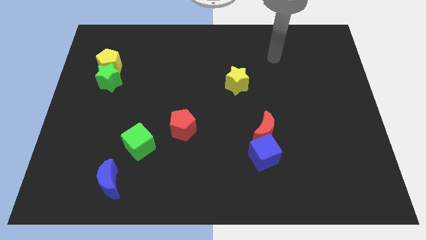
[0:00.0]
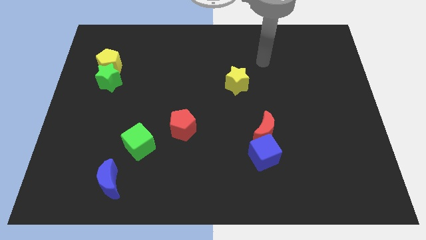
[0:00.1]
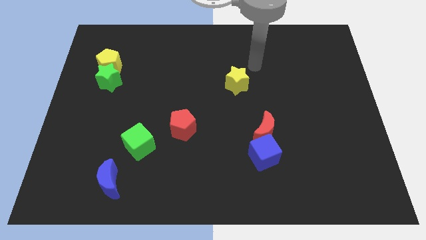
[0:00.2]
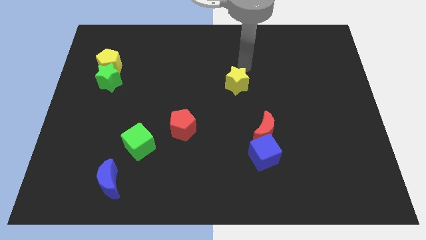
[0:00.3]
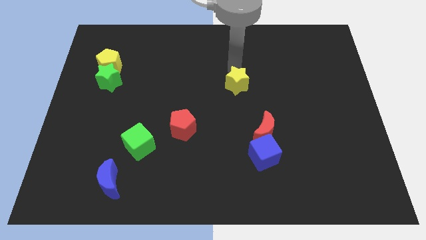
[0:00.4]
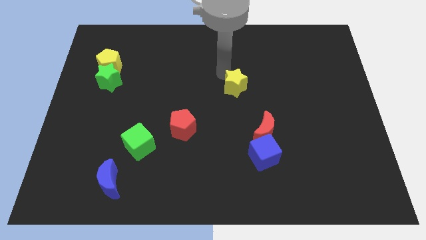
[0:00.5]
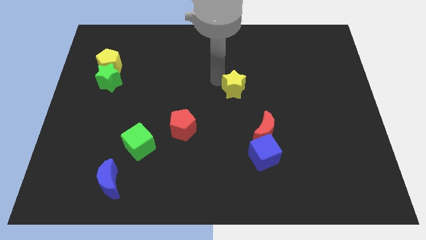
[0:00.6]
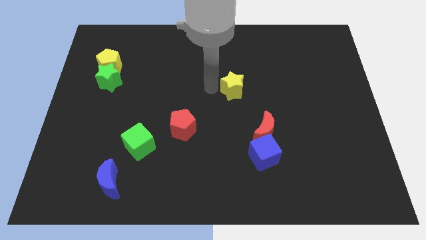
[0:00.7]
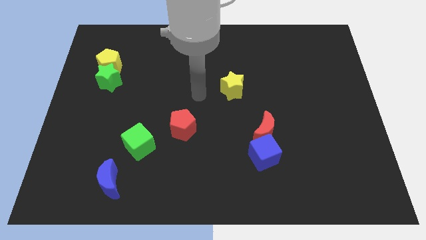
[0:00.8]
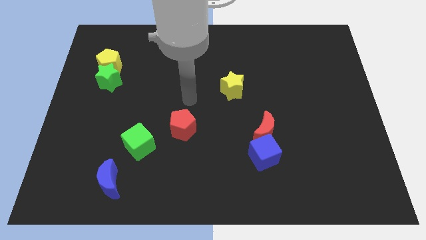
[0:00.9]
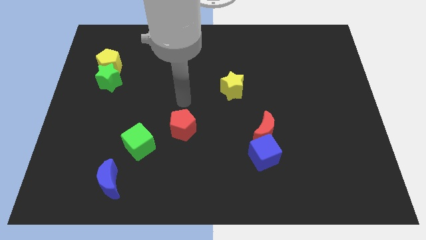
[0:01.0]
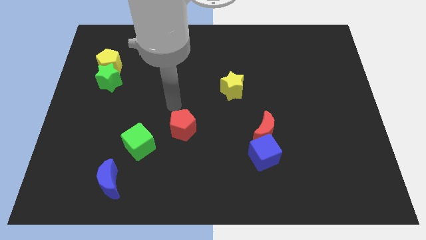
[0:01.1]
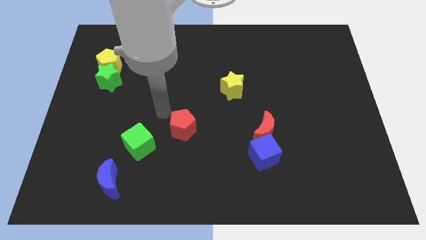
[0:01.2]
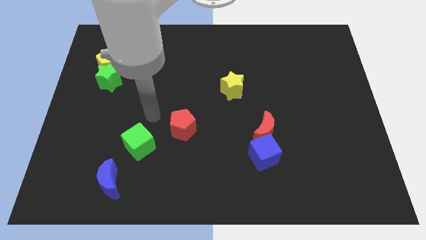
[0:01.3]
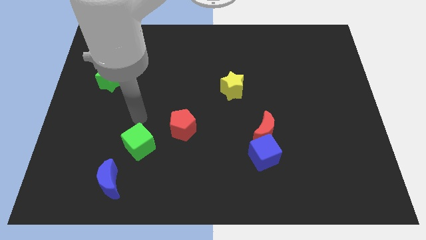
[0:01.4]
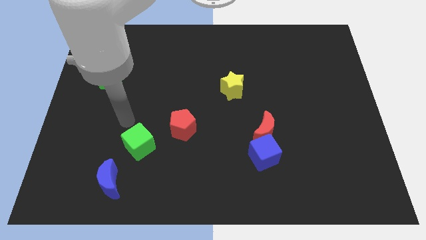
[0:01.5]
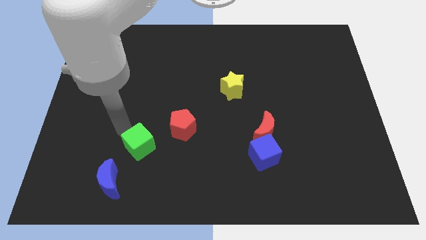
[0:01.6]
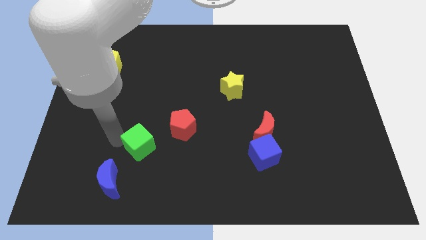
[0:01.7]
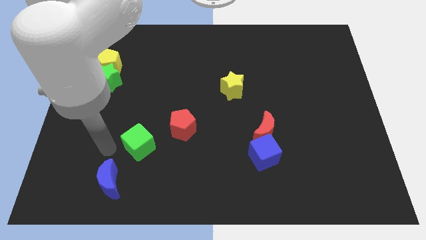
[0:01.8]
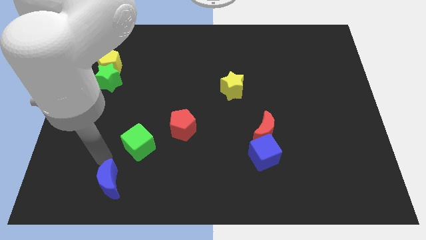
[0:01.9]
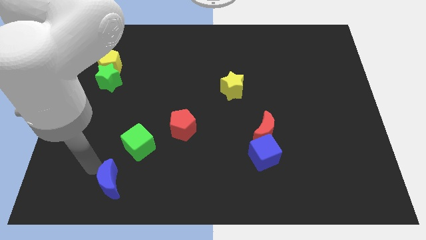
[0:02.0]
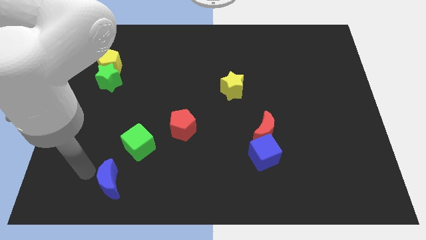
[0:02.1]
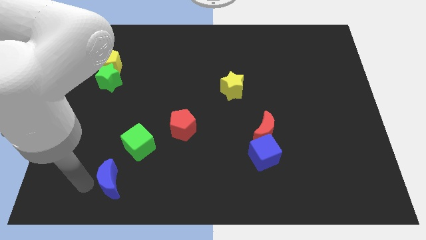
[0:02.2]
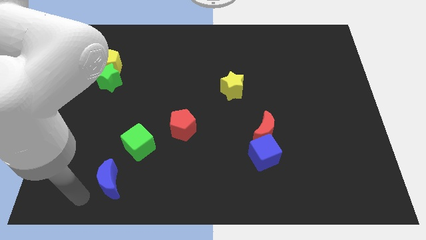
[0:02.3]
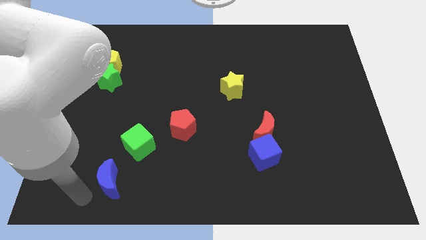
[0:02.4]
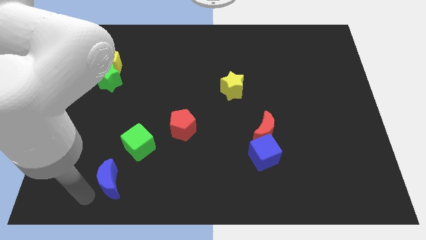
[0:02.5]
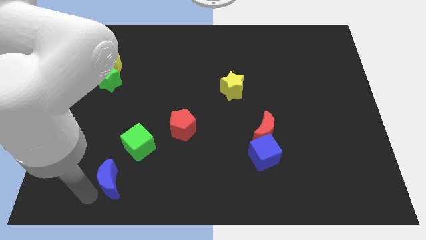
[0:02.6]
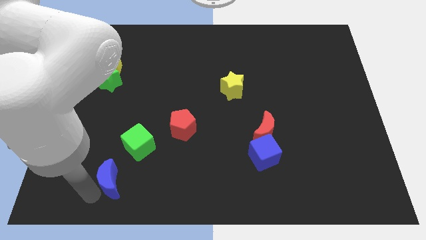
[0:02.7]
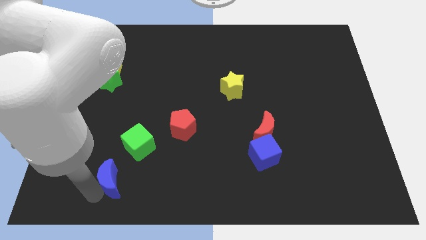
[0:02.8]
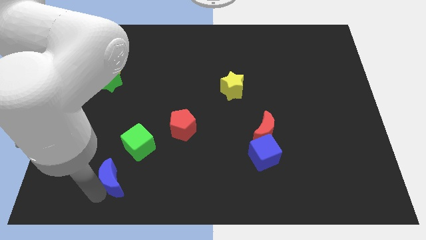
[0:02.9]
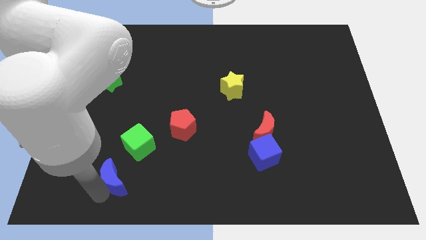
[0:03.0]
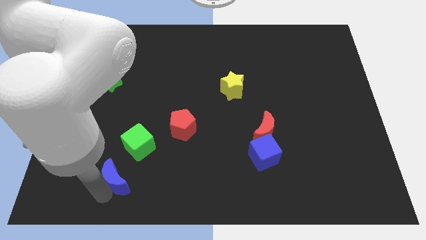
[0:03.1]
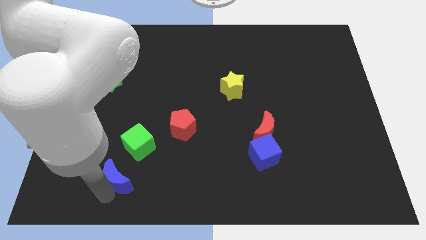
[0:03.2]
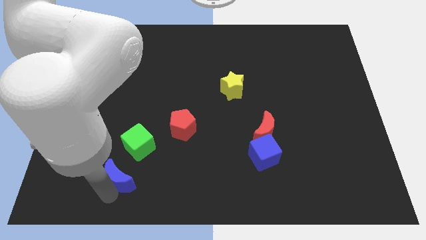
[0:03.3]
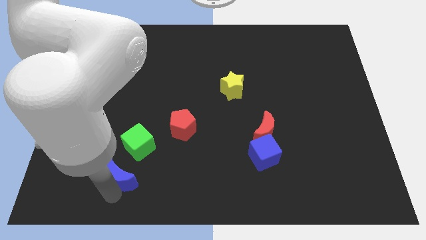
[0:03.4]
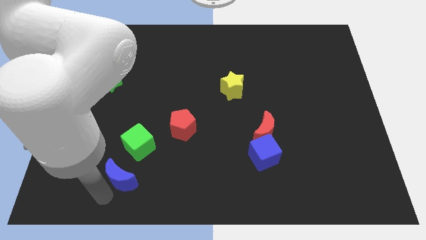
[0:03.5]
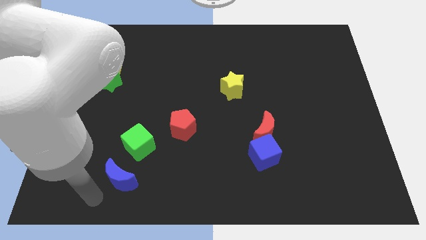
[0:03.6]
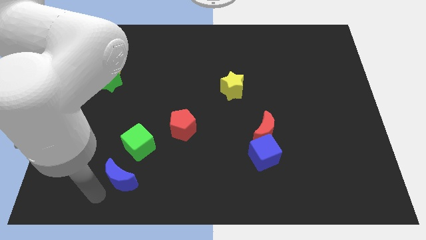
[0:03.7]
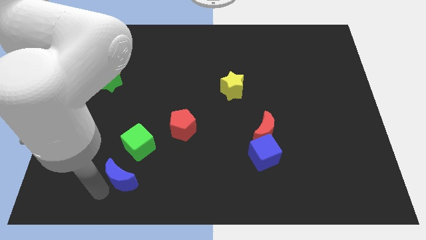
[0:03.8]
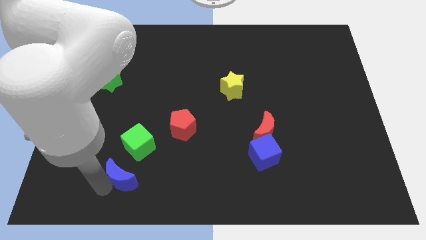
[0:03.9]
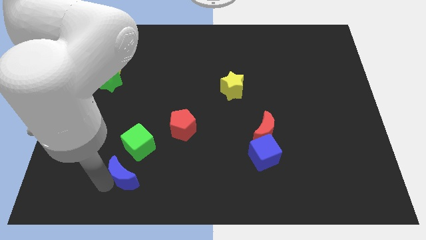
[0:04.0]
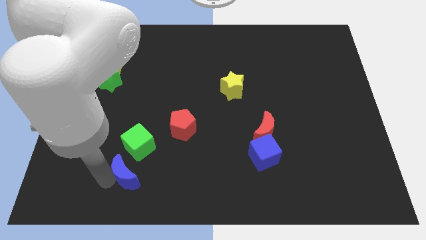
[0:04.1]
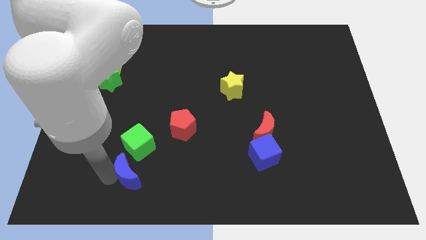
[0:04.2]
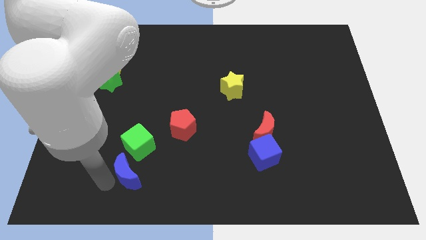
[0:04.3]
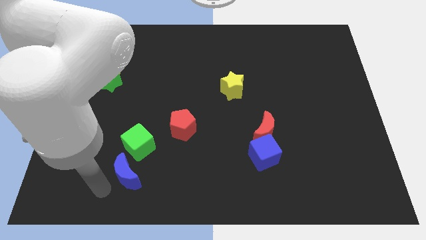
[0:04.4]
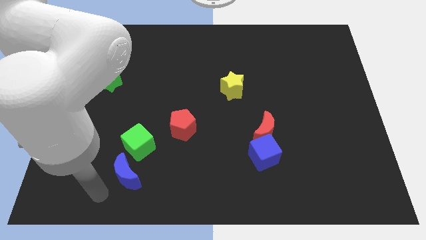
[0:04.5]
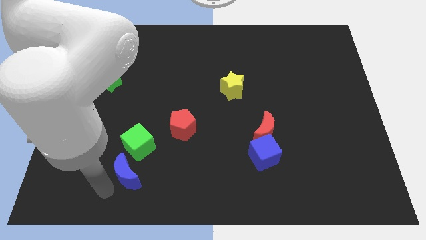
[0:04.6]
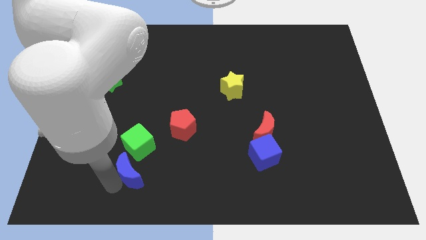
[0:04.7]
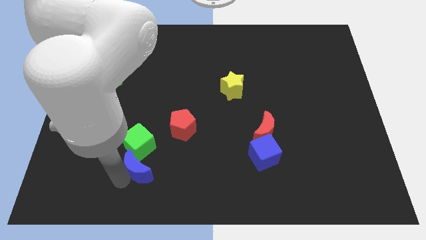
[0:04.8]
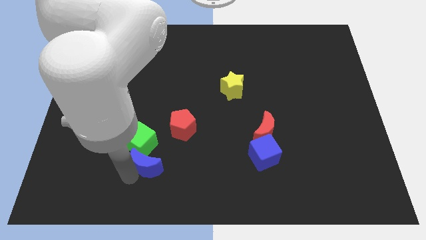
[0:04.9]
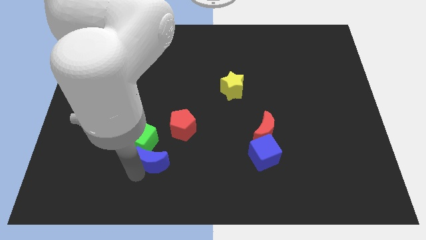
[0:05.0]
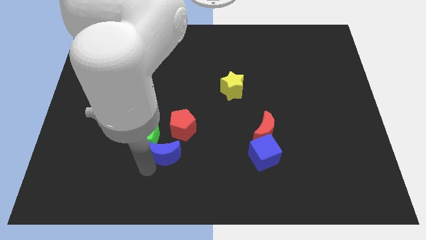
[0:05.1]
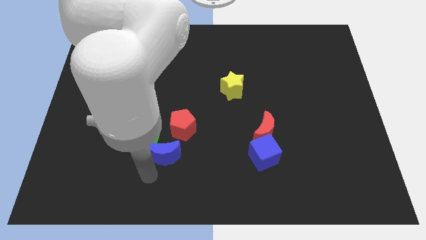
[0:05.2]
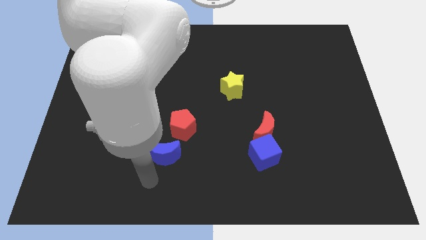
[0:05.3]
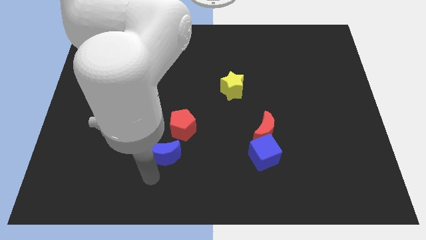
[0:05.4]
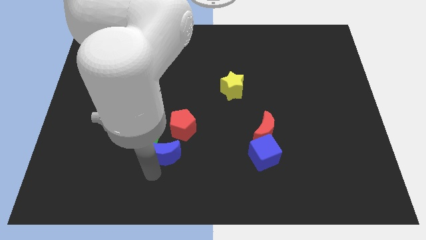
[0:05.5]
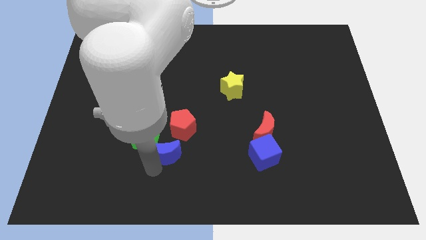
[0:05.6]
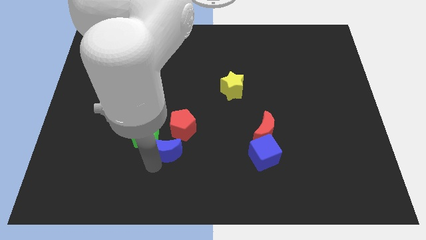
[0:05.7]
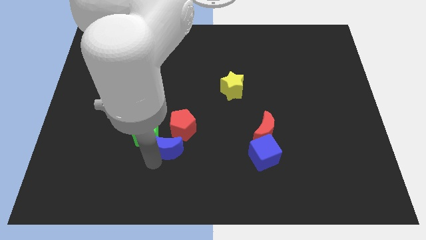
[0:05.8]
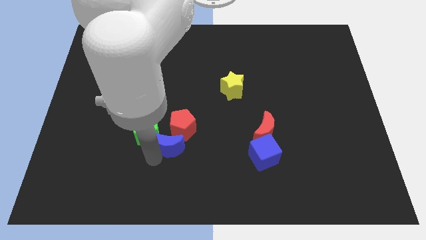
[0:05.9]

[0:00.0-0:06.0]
put the blue moon next to the red pentagon

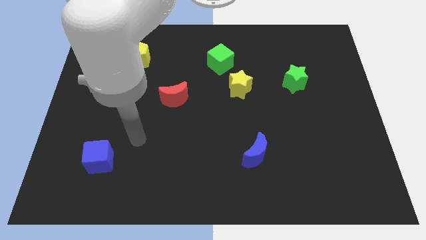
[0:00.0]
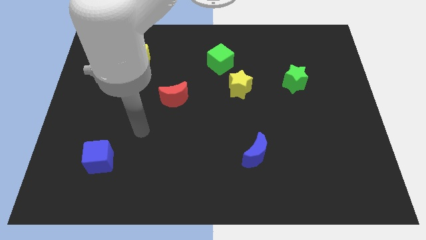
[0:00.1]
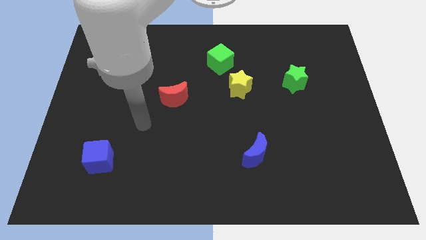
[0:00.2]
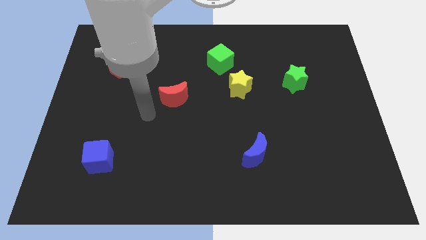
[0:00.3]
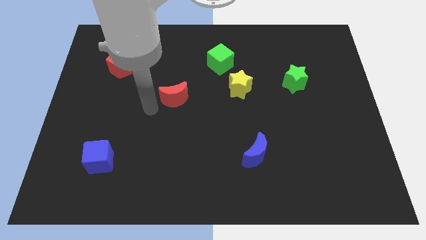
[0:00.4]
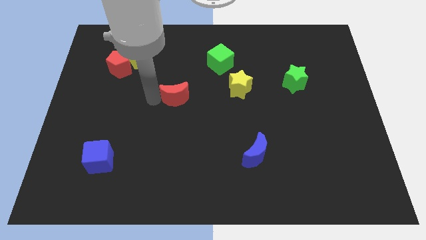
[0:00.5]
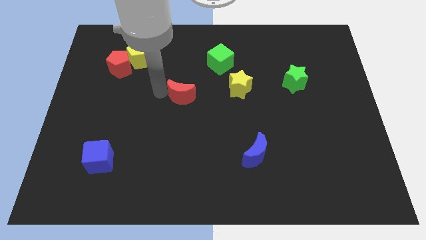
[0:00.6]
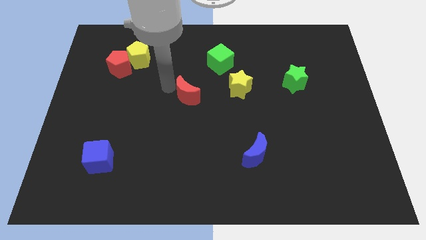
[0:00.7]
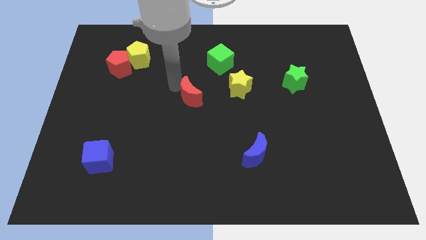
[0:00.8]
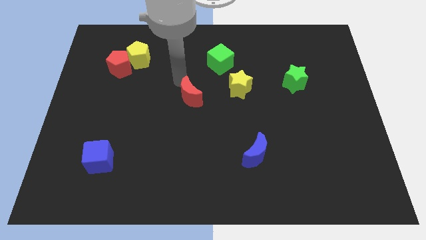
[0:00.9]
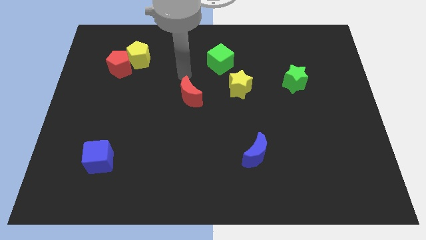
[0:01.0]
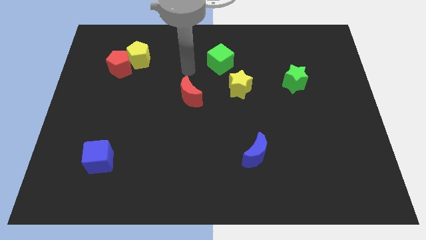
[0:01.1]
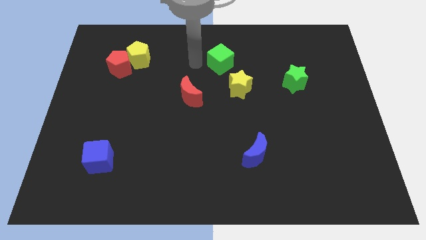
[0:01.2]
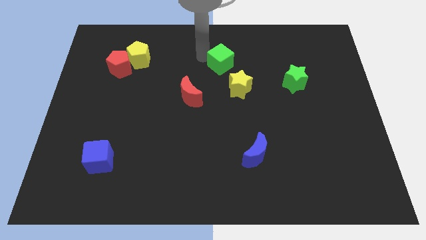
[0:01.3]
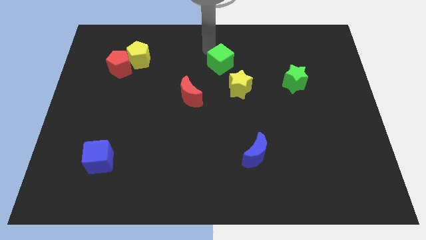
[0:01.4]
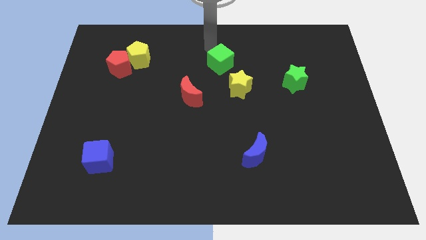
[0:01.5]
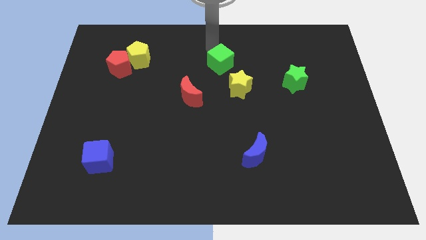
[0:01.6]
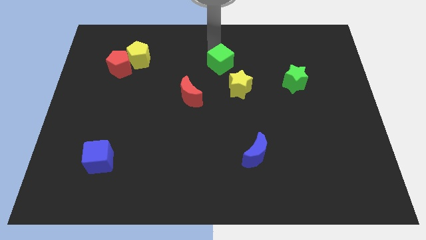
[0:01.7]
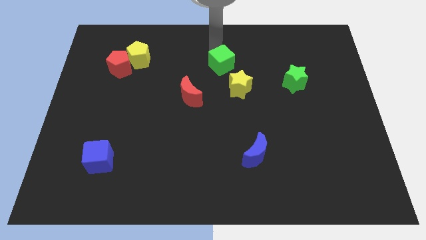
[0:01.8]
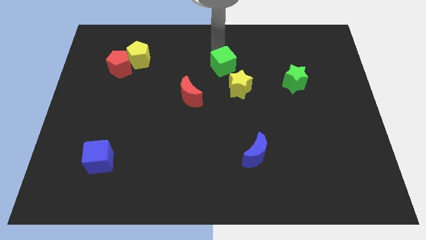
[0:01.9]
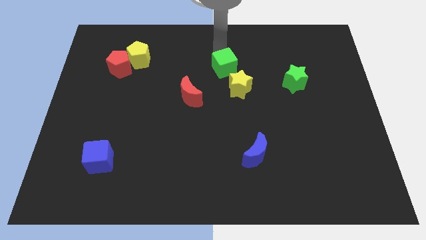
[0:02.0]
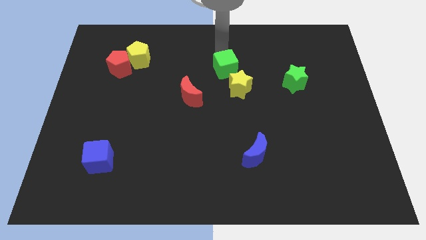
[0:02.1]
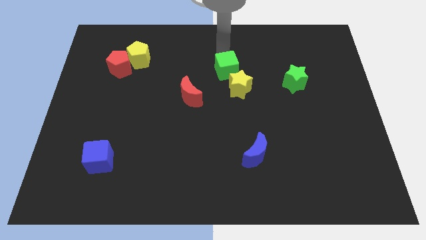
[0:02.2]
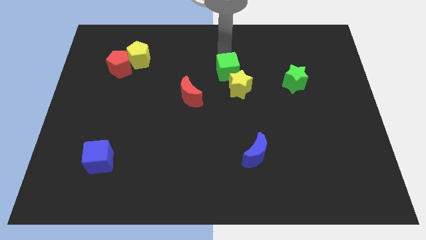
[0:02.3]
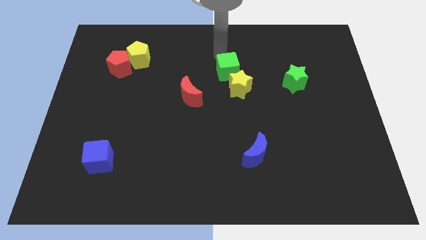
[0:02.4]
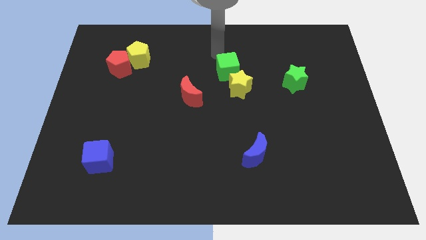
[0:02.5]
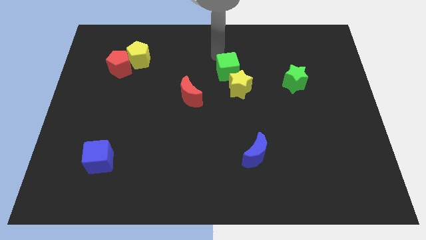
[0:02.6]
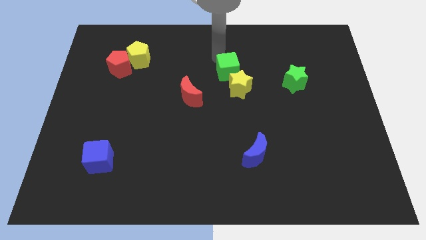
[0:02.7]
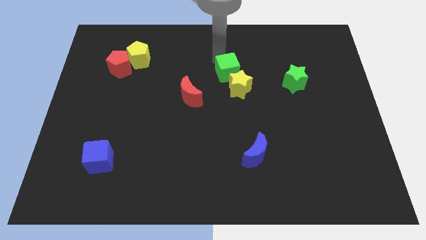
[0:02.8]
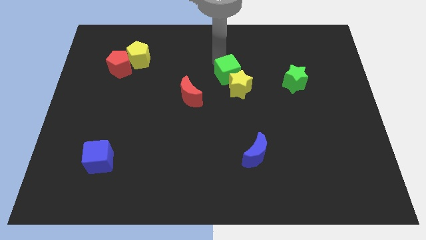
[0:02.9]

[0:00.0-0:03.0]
put the green cube towards the yellow star
